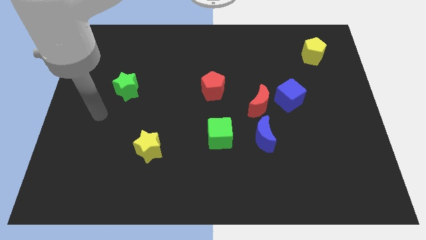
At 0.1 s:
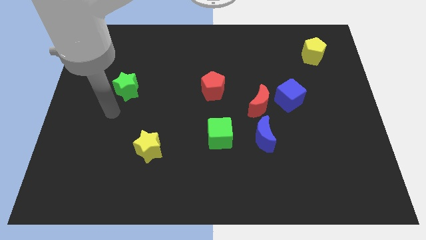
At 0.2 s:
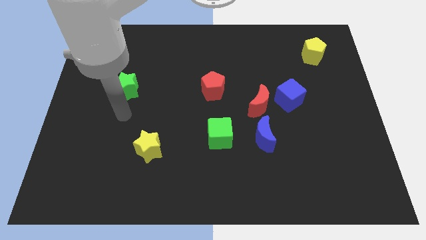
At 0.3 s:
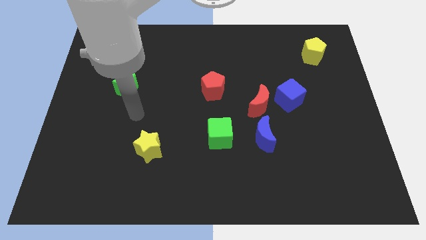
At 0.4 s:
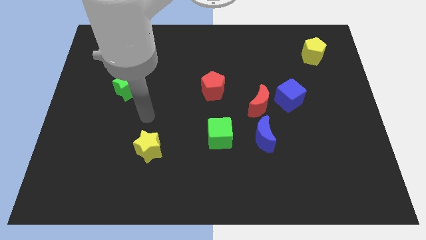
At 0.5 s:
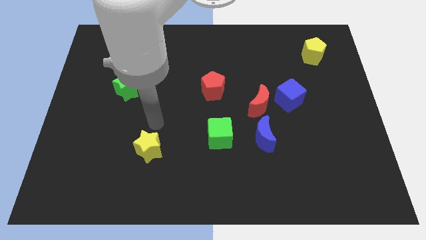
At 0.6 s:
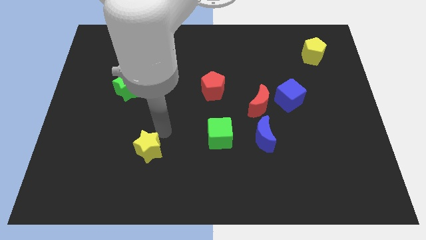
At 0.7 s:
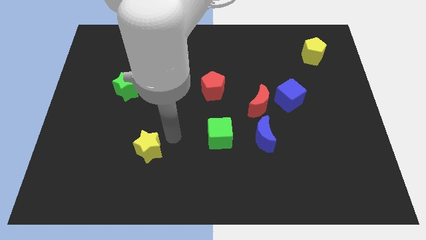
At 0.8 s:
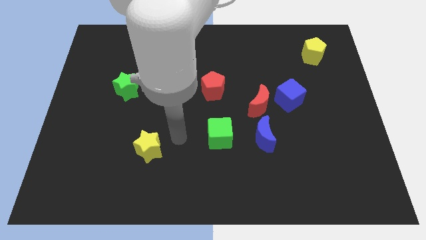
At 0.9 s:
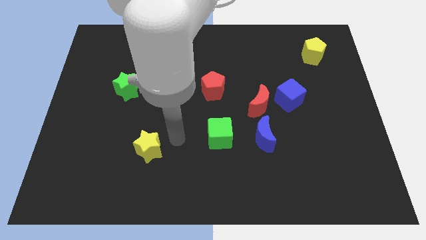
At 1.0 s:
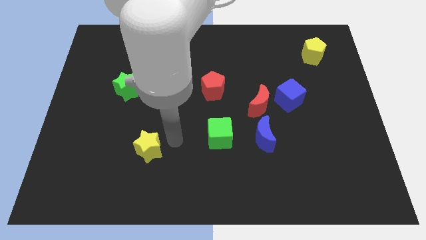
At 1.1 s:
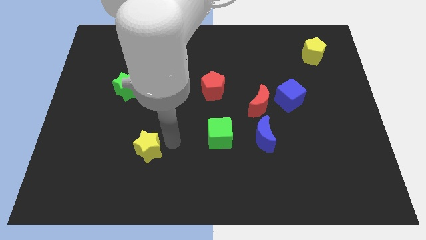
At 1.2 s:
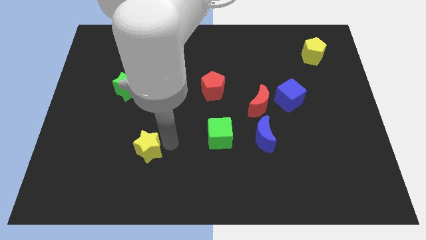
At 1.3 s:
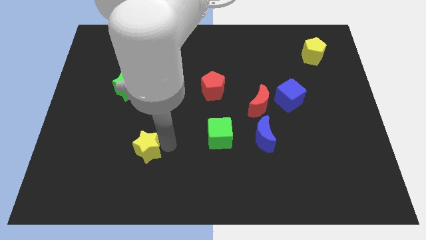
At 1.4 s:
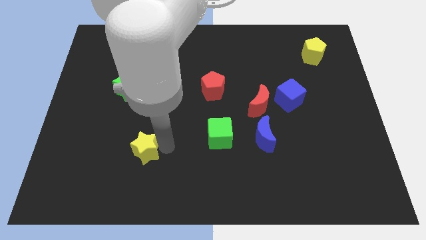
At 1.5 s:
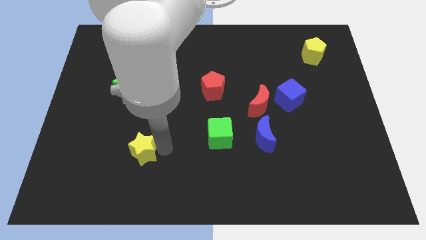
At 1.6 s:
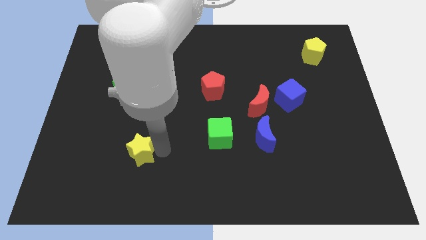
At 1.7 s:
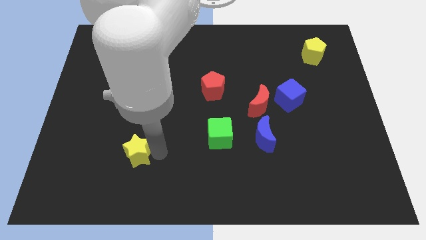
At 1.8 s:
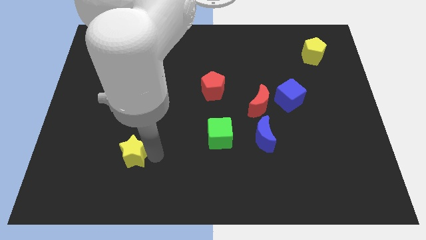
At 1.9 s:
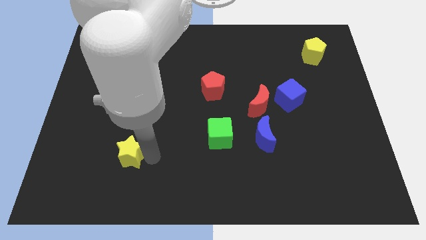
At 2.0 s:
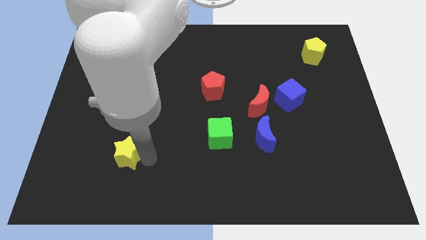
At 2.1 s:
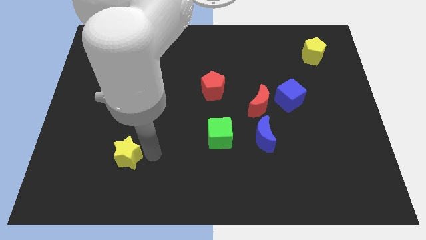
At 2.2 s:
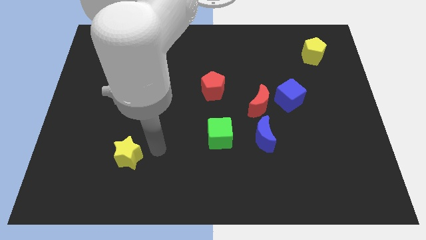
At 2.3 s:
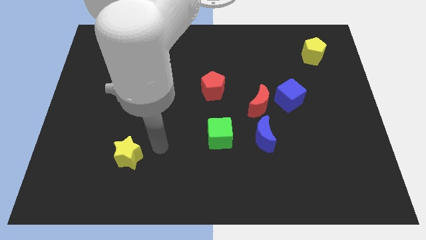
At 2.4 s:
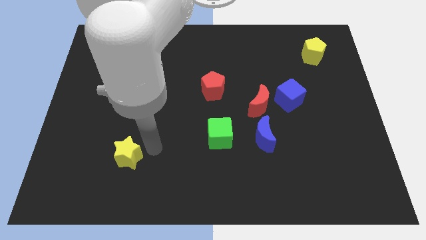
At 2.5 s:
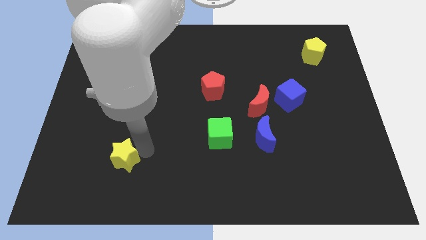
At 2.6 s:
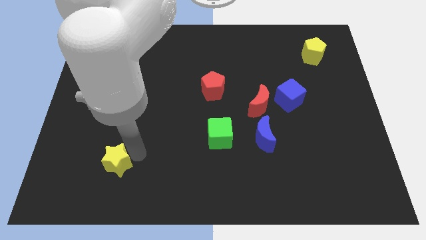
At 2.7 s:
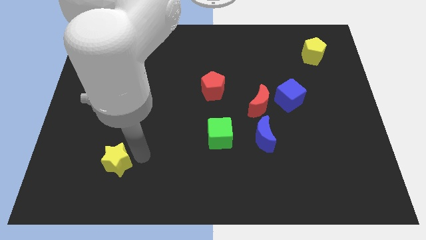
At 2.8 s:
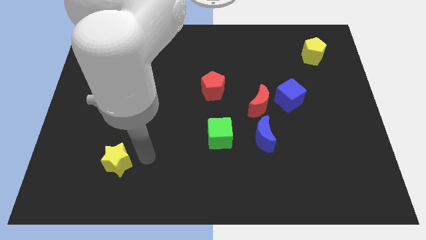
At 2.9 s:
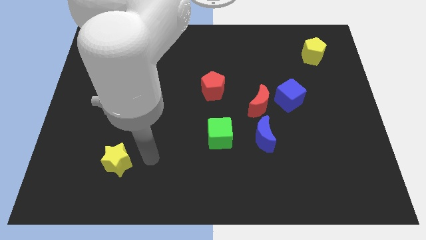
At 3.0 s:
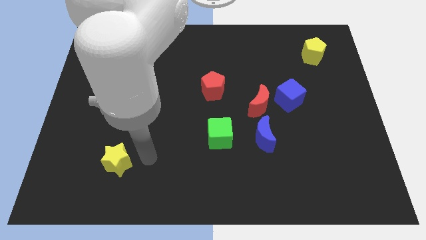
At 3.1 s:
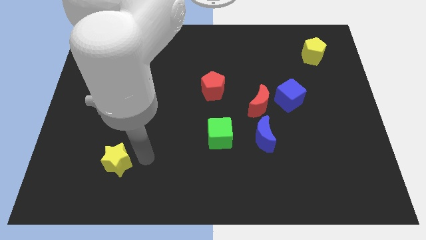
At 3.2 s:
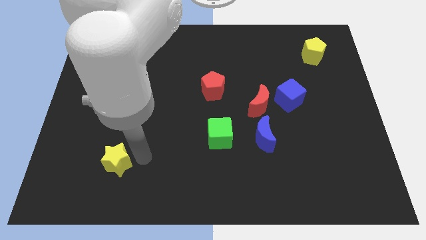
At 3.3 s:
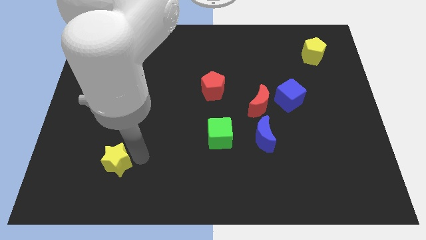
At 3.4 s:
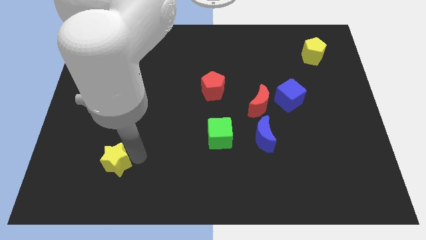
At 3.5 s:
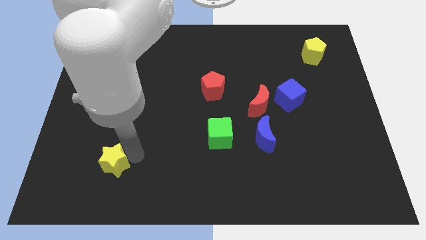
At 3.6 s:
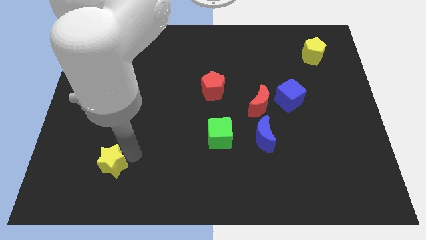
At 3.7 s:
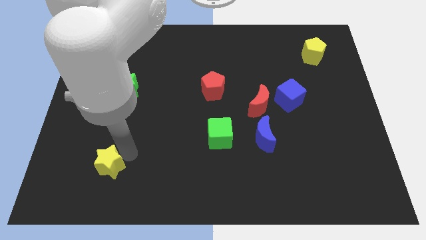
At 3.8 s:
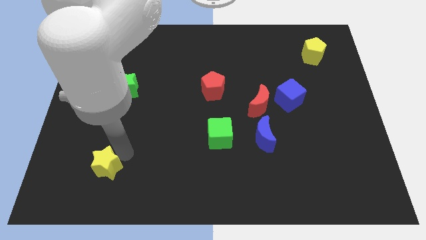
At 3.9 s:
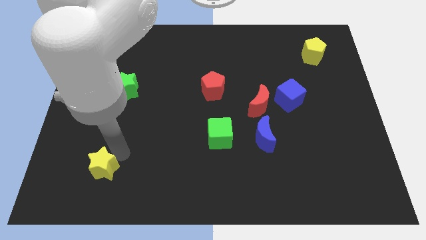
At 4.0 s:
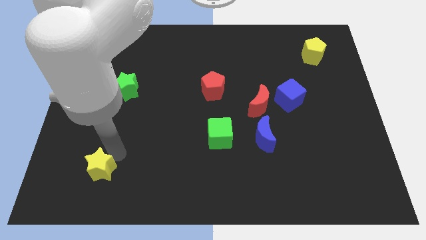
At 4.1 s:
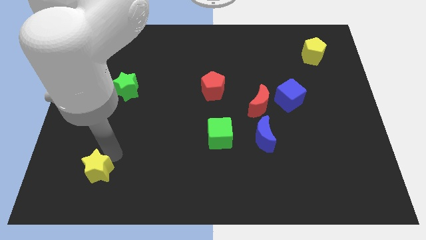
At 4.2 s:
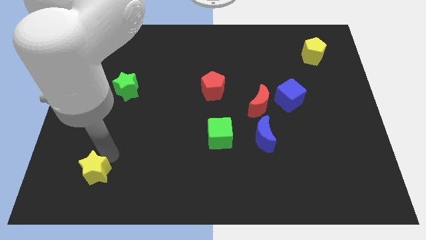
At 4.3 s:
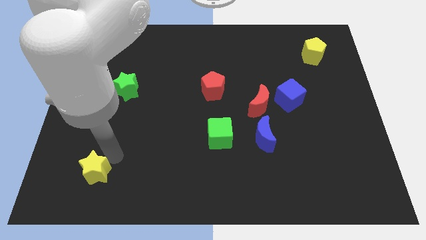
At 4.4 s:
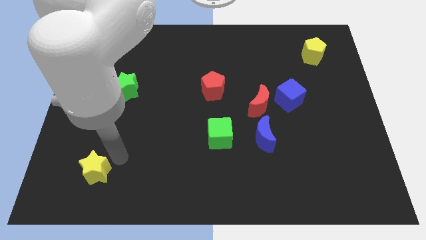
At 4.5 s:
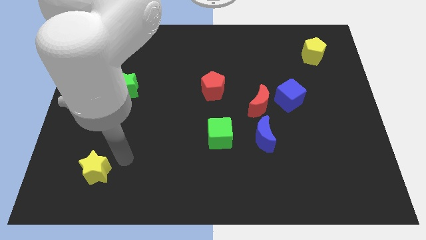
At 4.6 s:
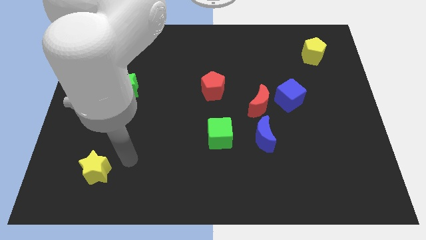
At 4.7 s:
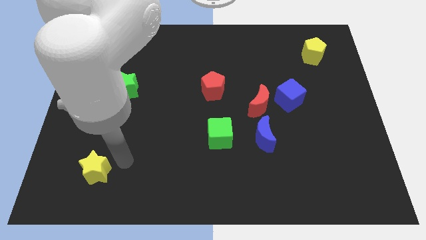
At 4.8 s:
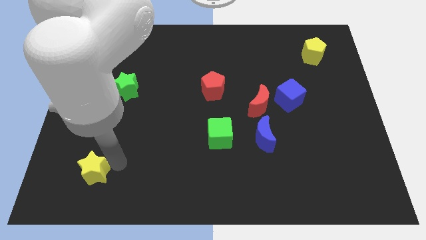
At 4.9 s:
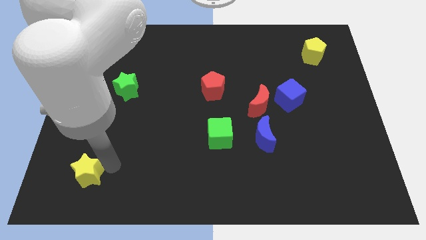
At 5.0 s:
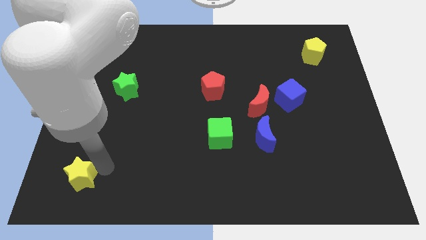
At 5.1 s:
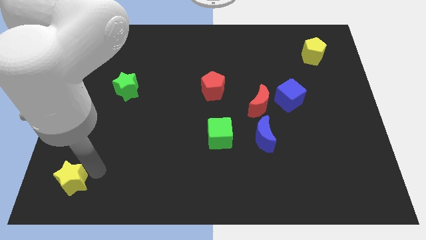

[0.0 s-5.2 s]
slide the yellow star to the bottom left corner
